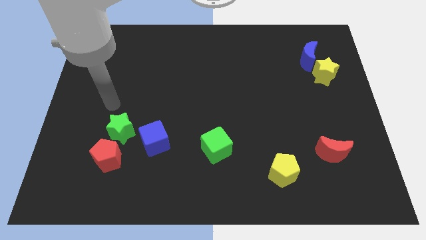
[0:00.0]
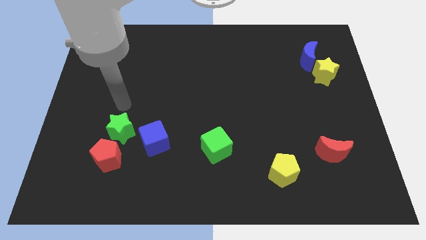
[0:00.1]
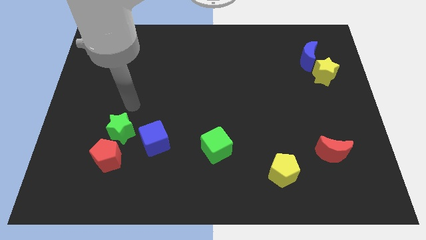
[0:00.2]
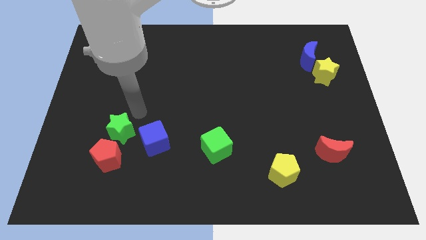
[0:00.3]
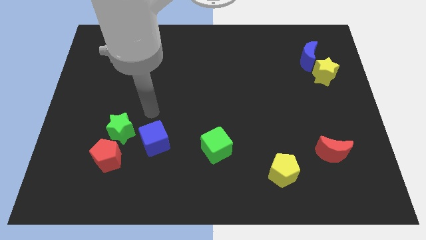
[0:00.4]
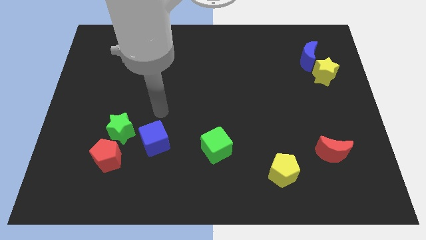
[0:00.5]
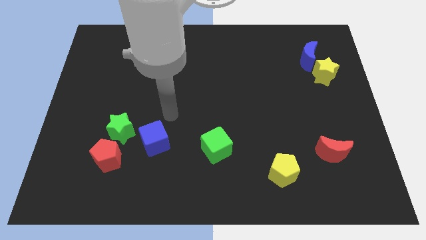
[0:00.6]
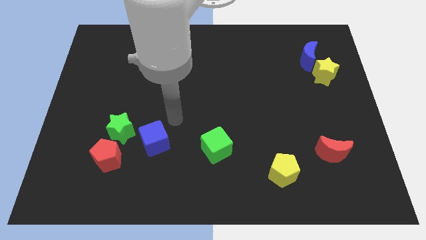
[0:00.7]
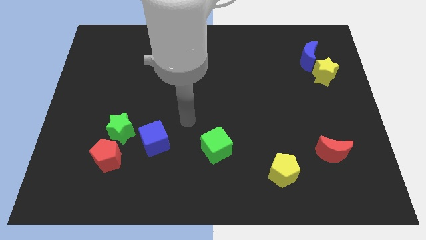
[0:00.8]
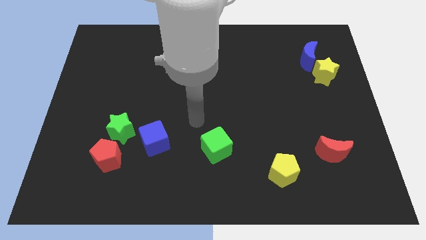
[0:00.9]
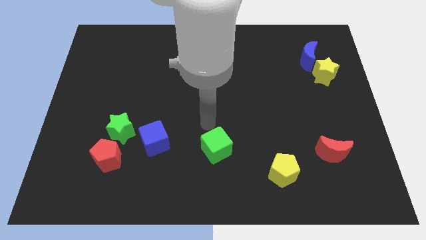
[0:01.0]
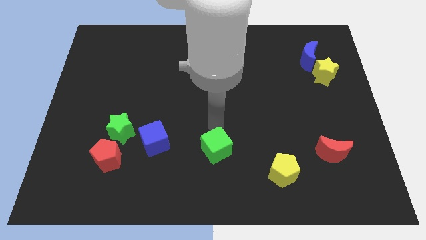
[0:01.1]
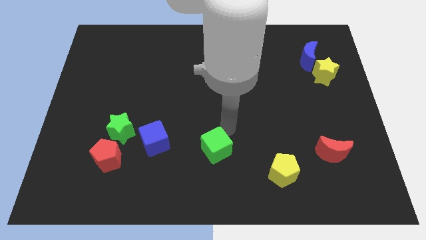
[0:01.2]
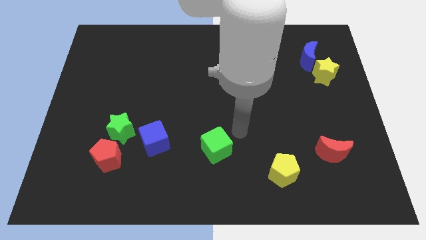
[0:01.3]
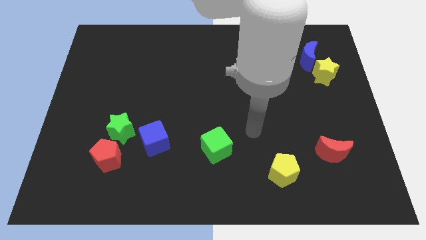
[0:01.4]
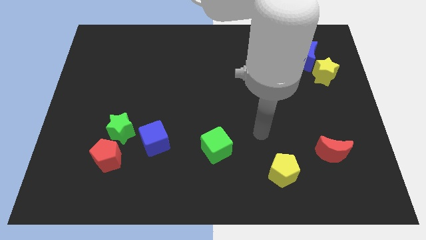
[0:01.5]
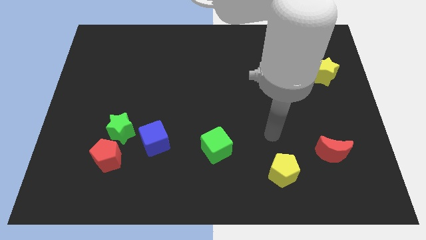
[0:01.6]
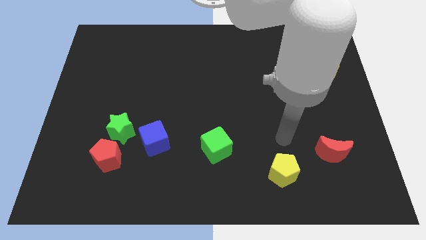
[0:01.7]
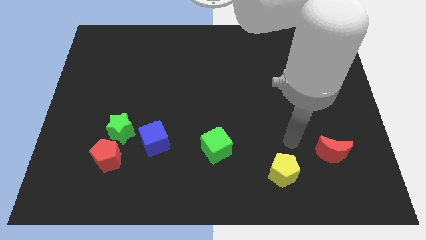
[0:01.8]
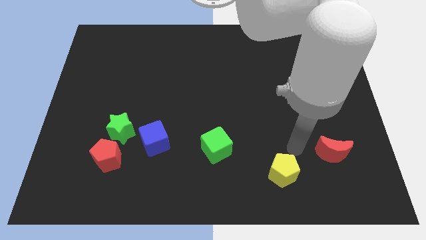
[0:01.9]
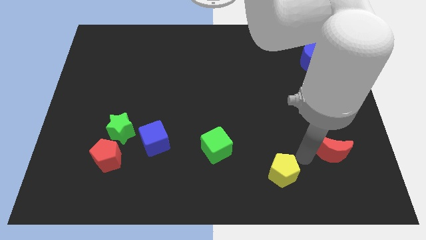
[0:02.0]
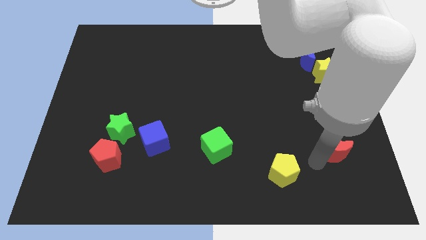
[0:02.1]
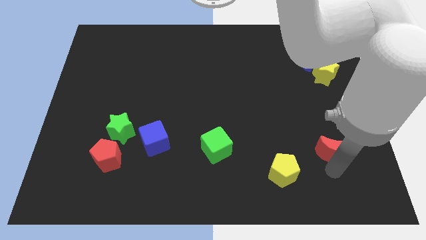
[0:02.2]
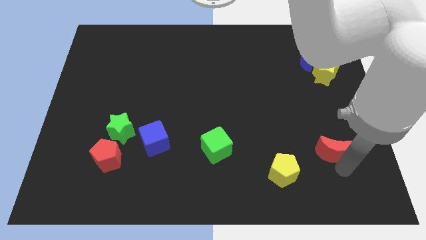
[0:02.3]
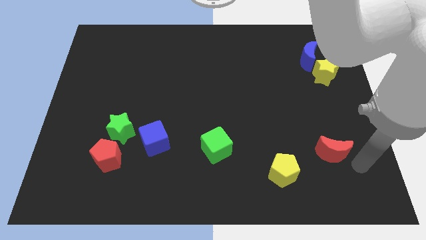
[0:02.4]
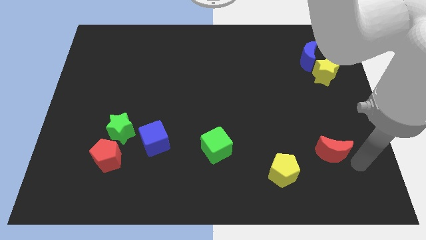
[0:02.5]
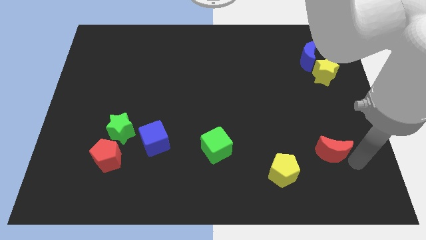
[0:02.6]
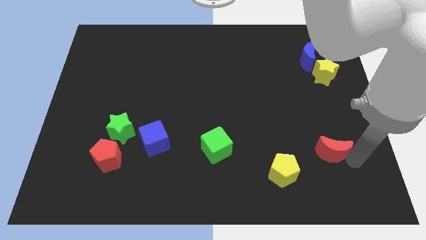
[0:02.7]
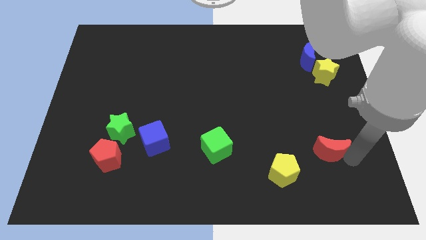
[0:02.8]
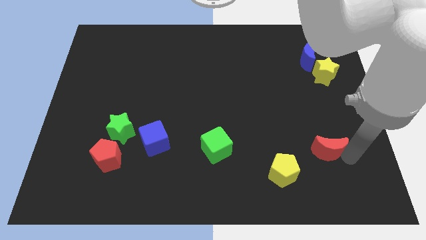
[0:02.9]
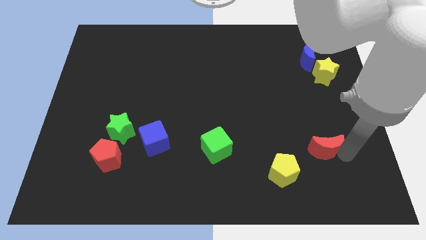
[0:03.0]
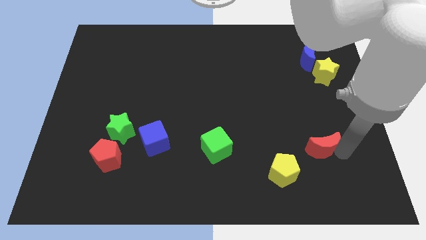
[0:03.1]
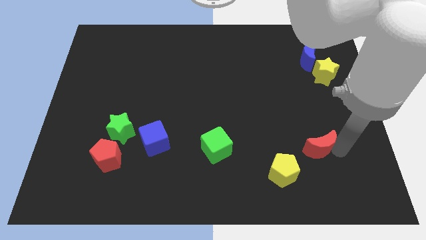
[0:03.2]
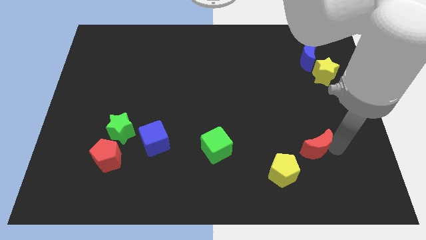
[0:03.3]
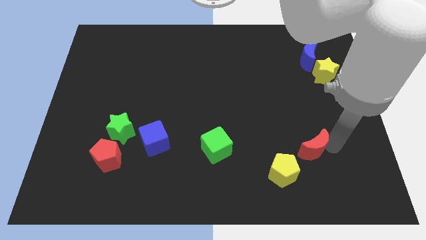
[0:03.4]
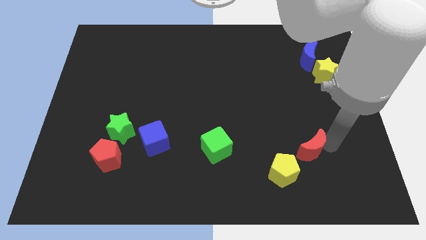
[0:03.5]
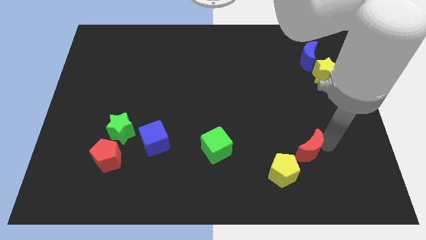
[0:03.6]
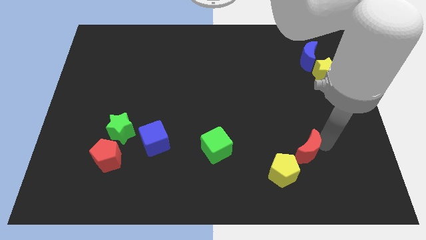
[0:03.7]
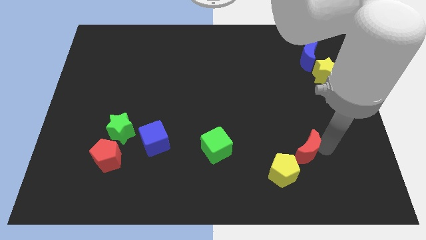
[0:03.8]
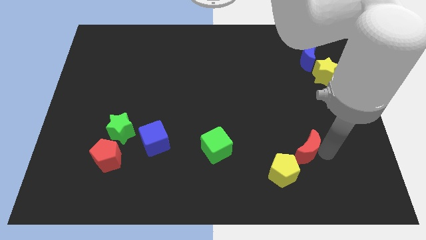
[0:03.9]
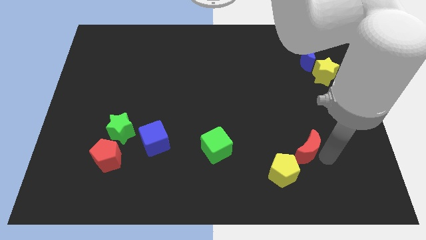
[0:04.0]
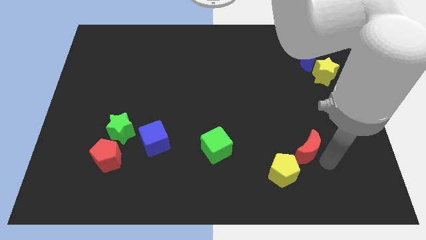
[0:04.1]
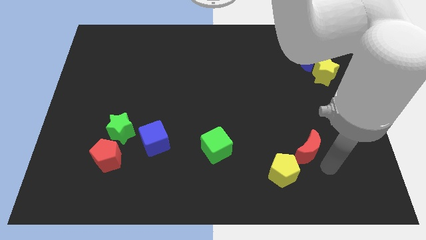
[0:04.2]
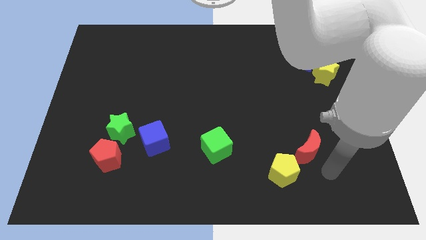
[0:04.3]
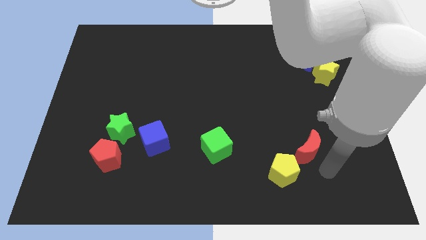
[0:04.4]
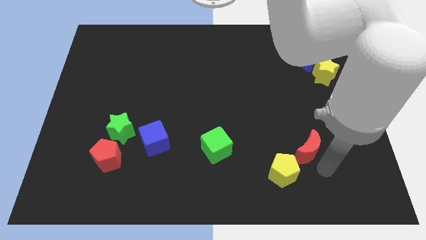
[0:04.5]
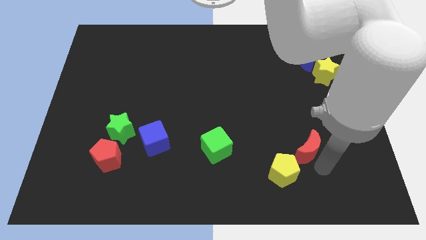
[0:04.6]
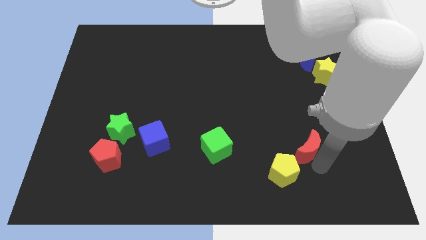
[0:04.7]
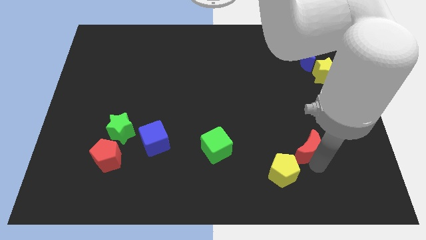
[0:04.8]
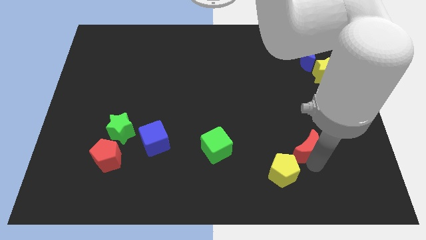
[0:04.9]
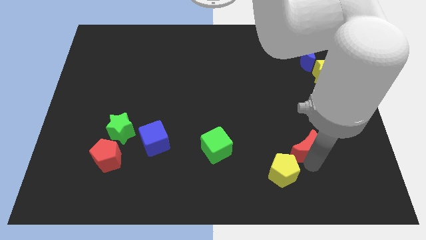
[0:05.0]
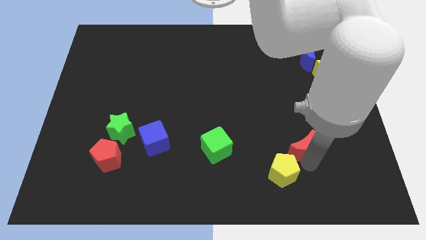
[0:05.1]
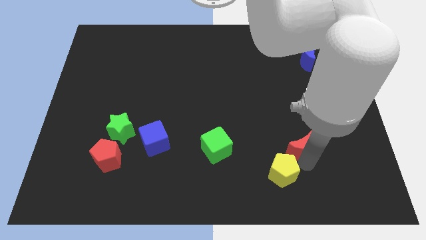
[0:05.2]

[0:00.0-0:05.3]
slide the red moon above the yellow pentagon

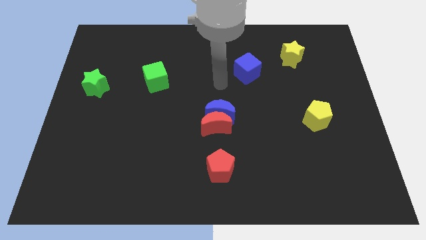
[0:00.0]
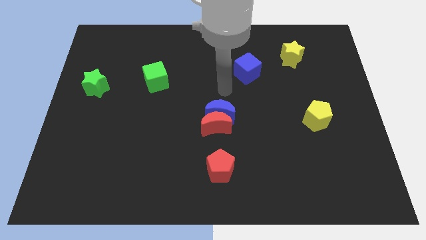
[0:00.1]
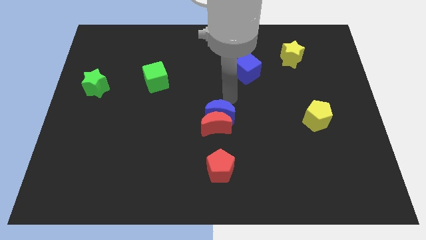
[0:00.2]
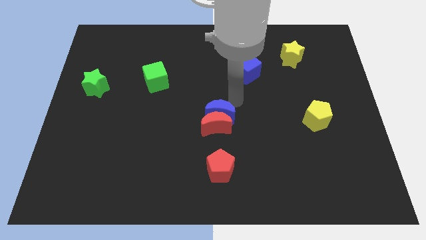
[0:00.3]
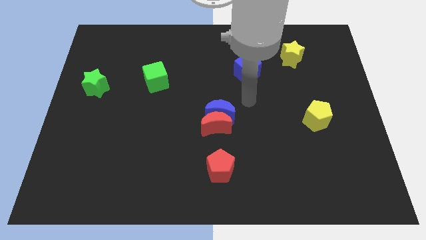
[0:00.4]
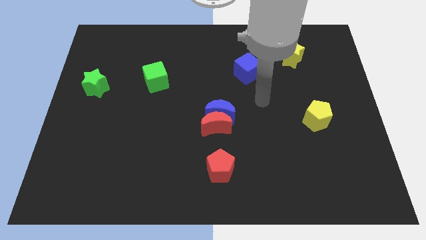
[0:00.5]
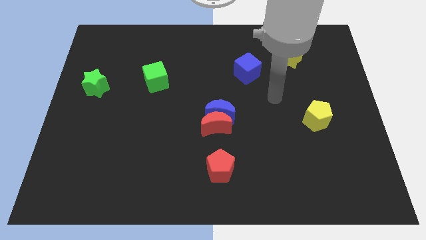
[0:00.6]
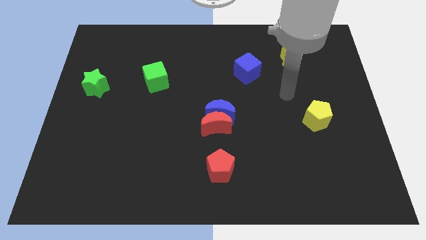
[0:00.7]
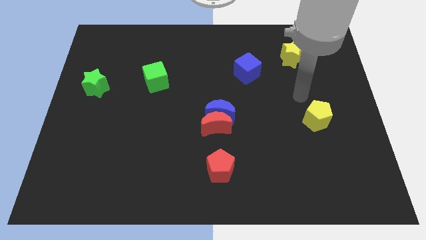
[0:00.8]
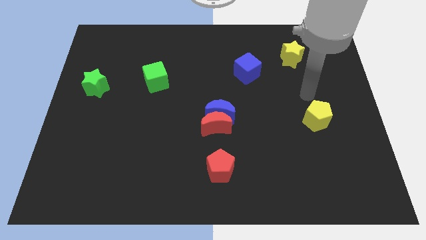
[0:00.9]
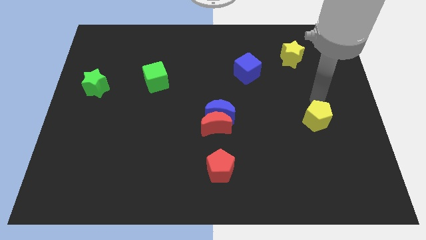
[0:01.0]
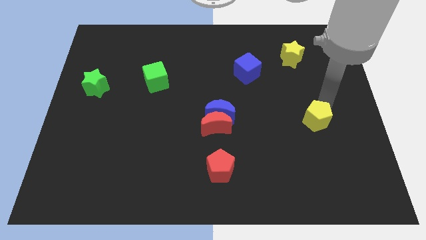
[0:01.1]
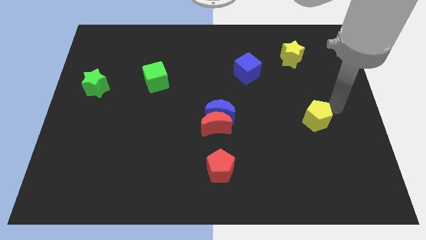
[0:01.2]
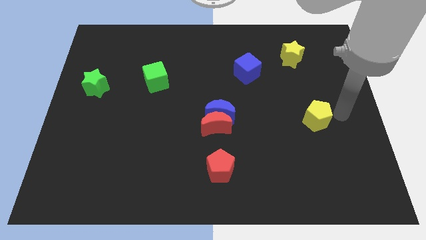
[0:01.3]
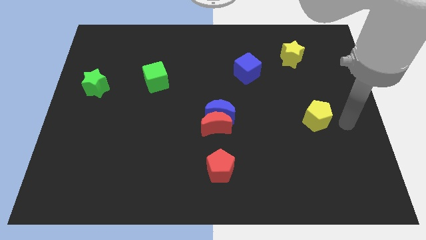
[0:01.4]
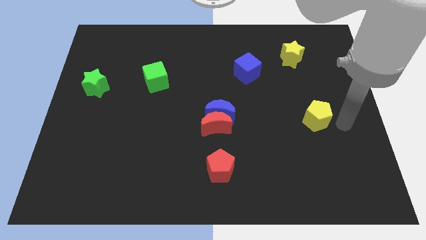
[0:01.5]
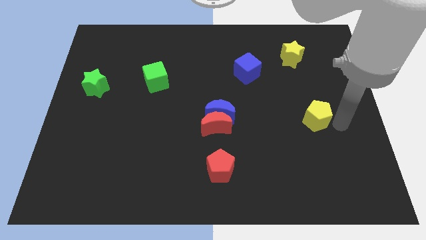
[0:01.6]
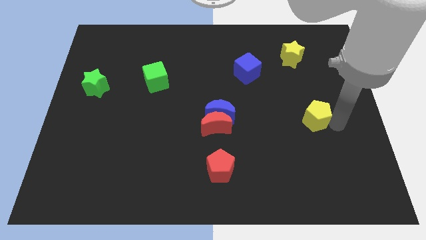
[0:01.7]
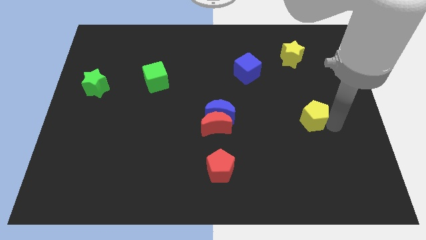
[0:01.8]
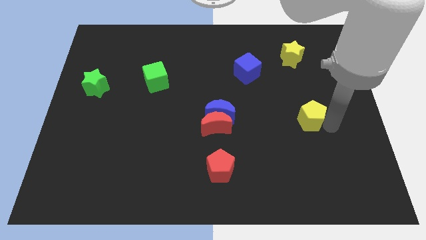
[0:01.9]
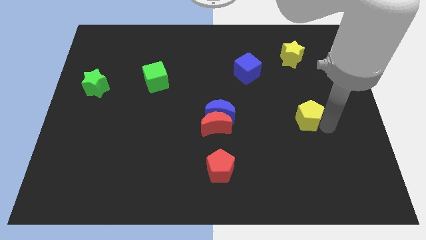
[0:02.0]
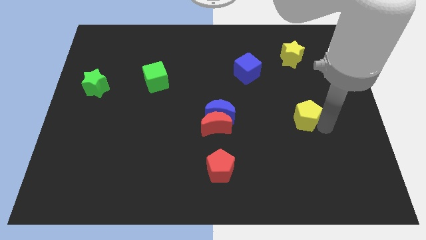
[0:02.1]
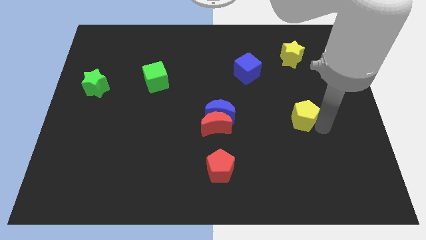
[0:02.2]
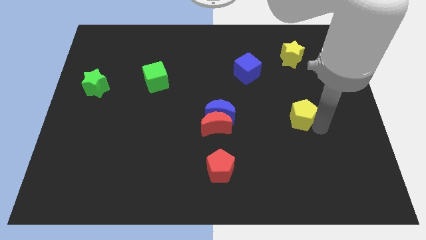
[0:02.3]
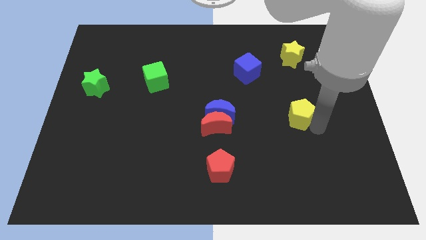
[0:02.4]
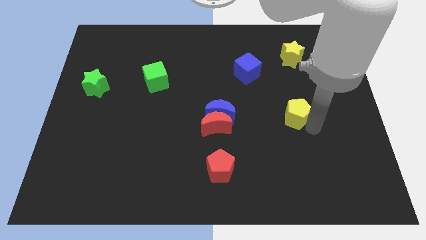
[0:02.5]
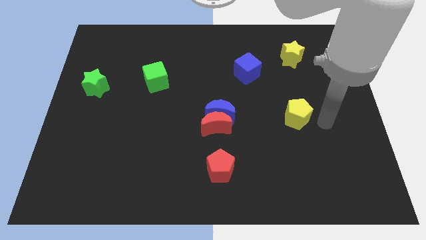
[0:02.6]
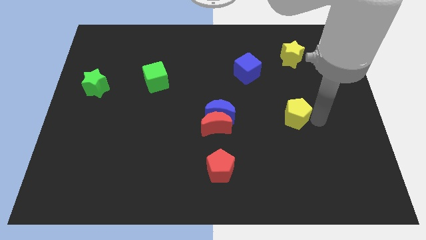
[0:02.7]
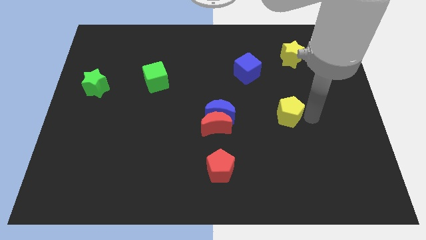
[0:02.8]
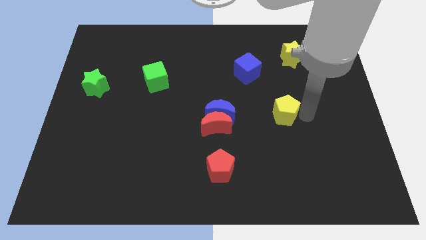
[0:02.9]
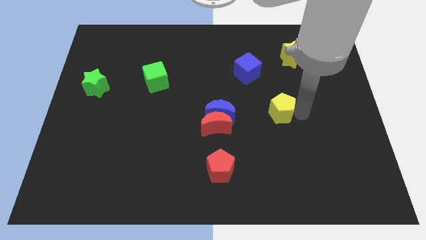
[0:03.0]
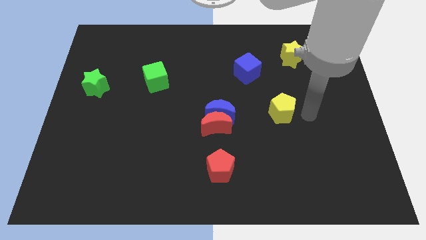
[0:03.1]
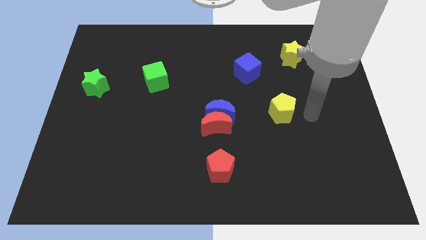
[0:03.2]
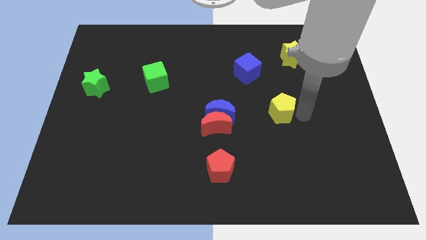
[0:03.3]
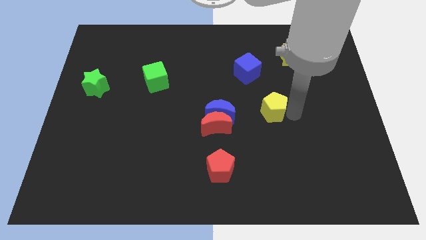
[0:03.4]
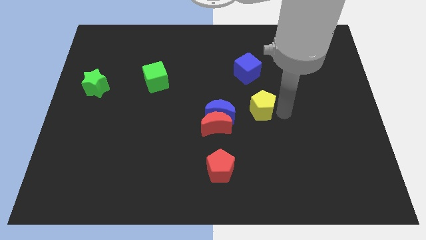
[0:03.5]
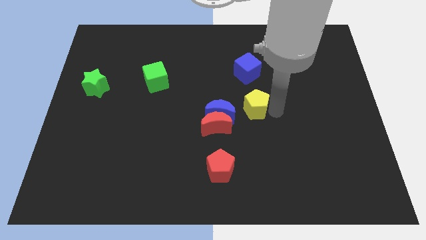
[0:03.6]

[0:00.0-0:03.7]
move the yellow pentagon to the top right of the red moon
